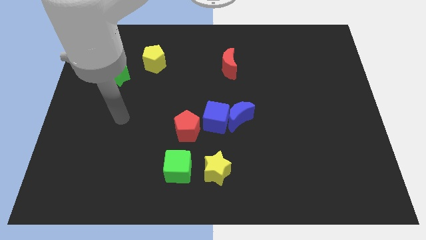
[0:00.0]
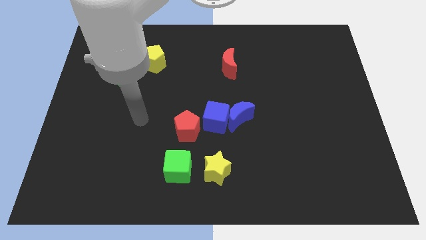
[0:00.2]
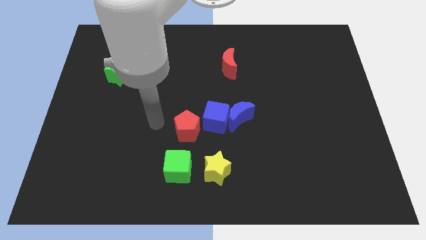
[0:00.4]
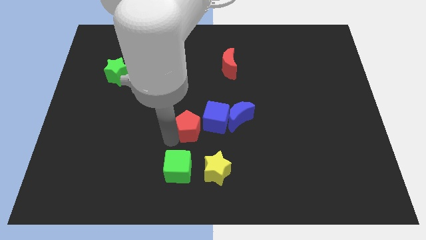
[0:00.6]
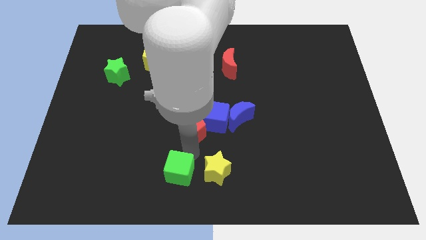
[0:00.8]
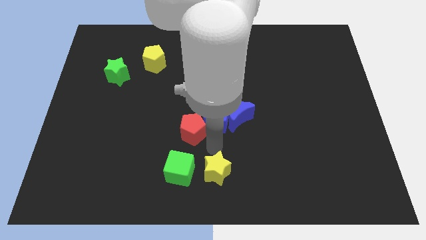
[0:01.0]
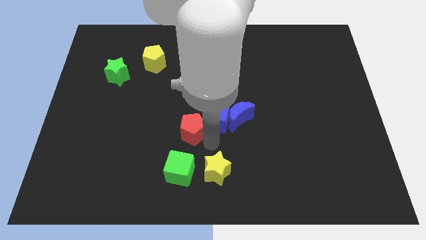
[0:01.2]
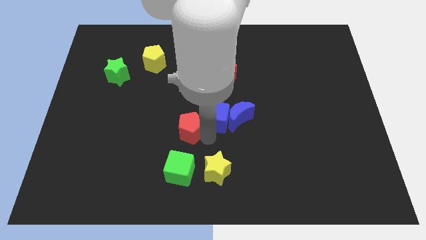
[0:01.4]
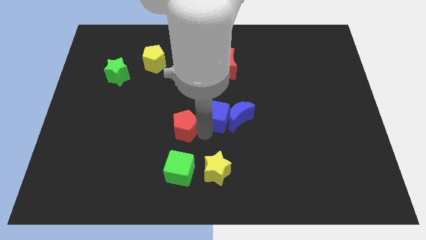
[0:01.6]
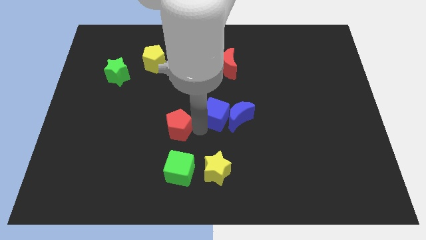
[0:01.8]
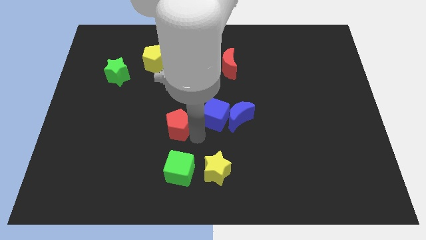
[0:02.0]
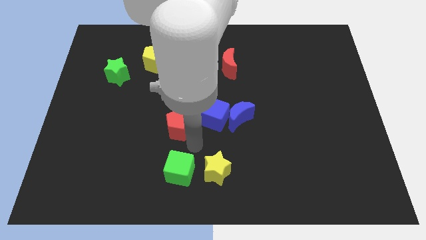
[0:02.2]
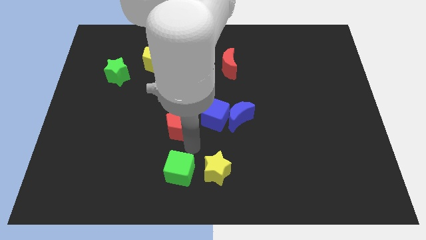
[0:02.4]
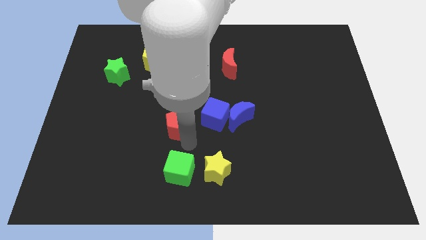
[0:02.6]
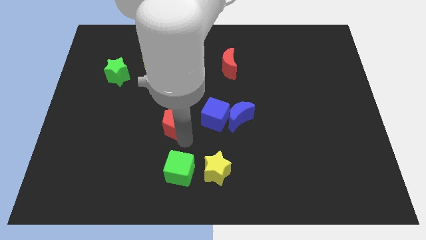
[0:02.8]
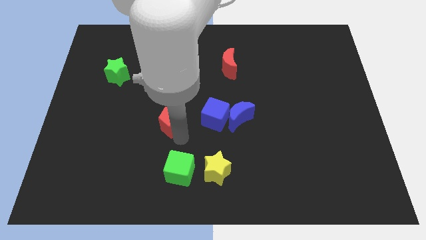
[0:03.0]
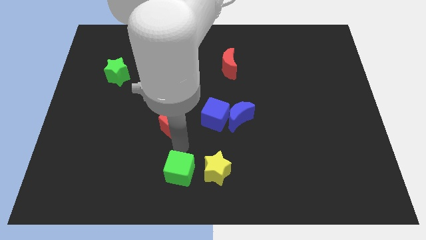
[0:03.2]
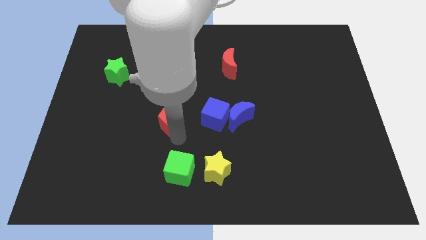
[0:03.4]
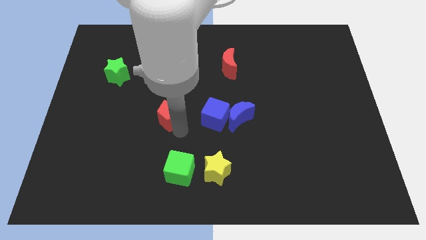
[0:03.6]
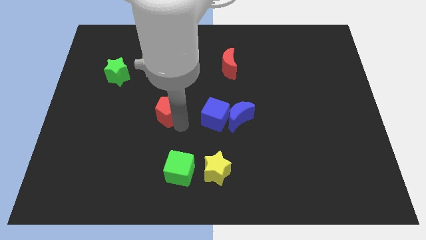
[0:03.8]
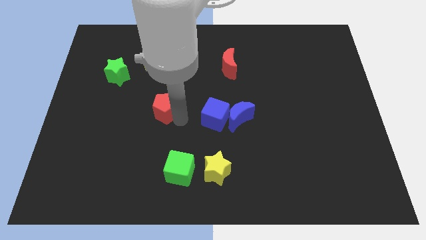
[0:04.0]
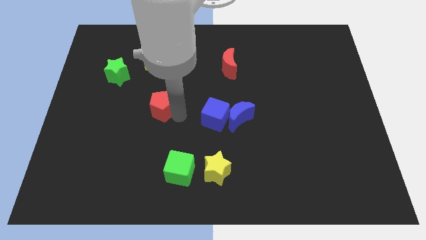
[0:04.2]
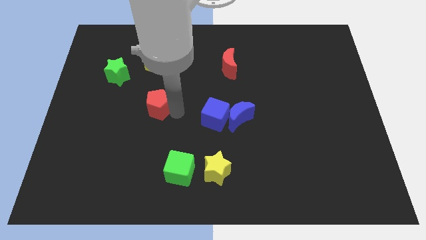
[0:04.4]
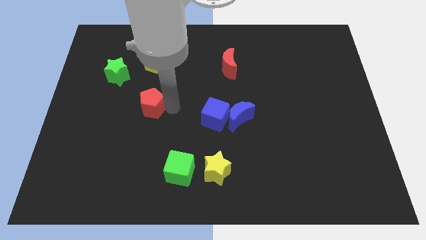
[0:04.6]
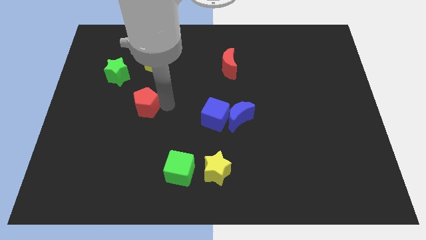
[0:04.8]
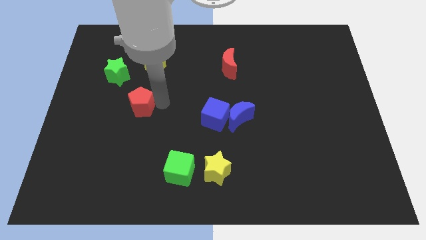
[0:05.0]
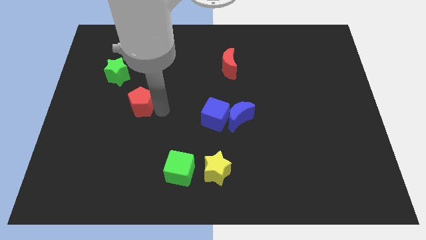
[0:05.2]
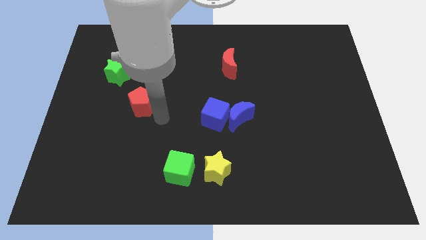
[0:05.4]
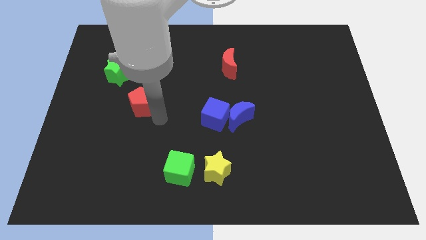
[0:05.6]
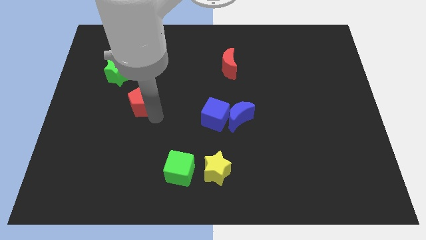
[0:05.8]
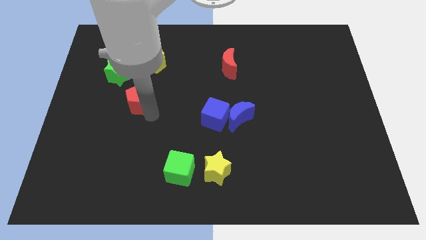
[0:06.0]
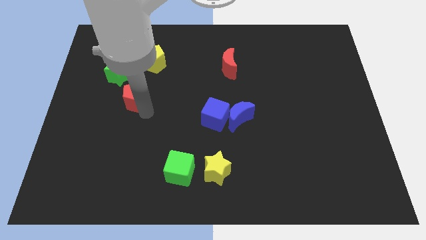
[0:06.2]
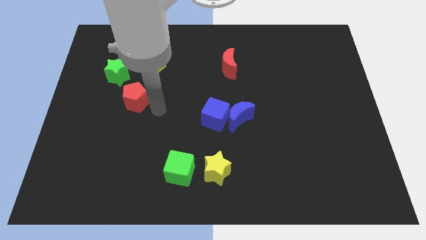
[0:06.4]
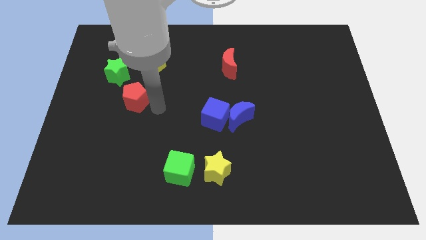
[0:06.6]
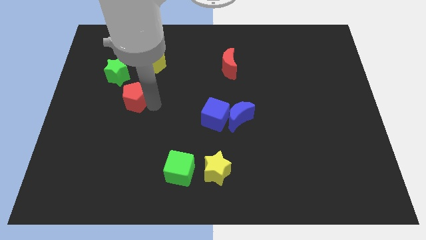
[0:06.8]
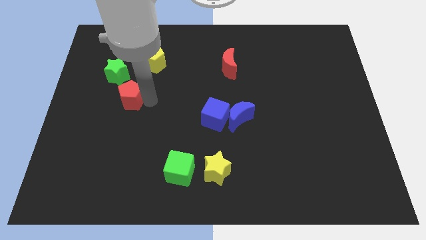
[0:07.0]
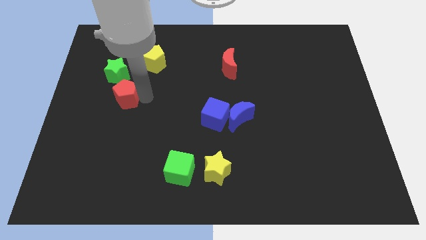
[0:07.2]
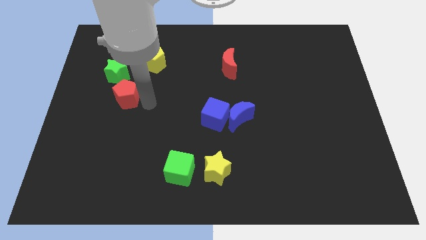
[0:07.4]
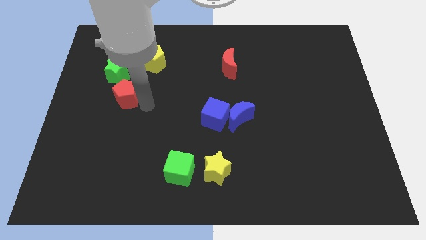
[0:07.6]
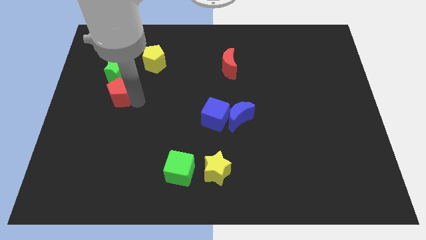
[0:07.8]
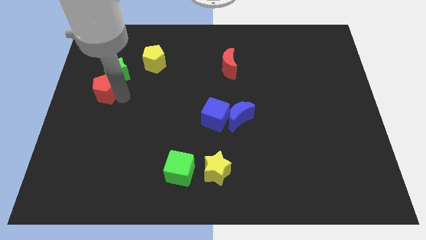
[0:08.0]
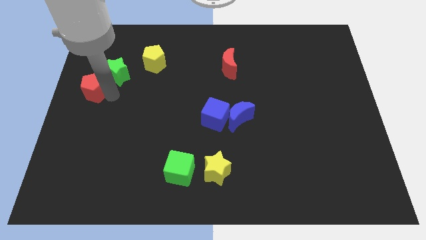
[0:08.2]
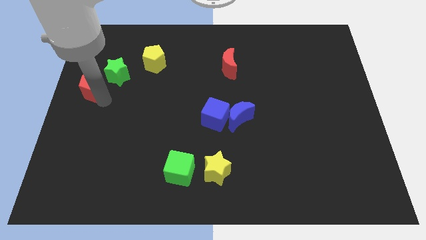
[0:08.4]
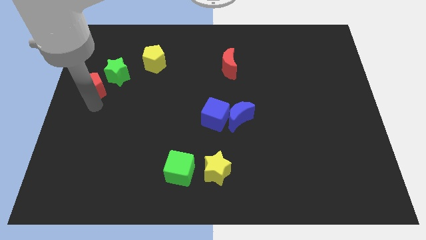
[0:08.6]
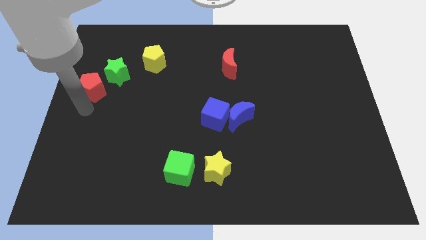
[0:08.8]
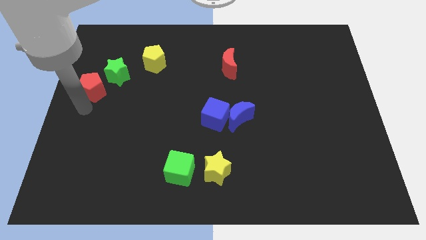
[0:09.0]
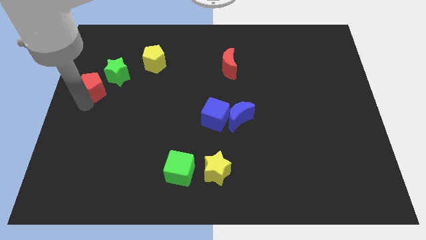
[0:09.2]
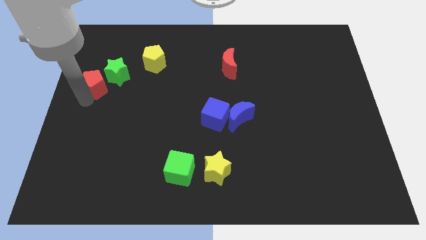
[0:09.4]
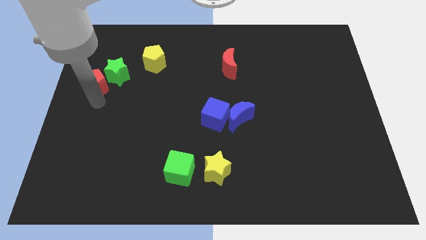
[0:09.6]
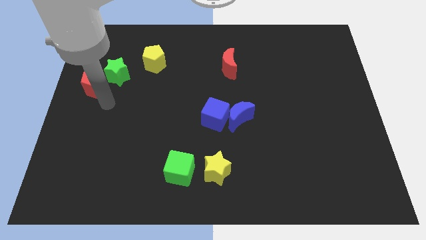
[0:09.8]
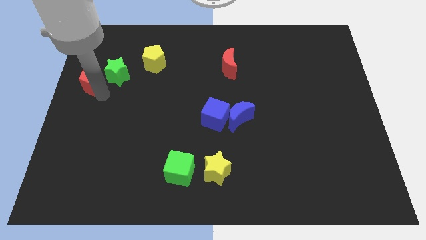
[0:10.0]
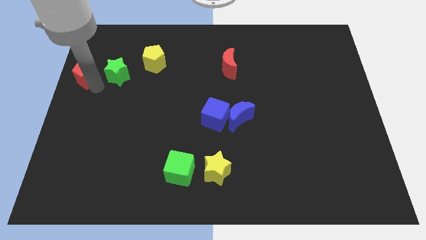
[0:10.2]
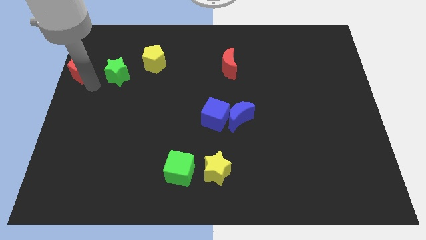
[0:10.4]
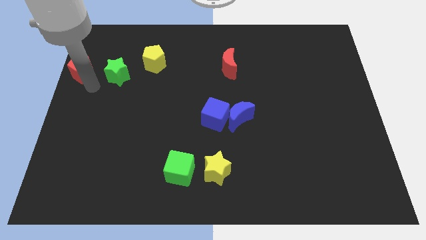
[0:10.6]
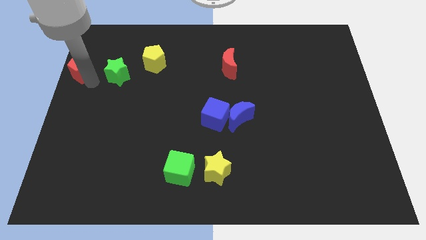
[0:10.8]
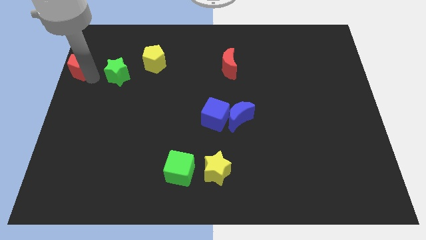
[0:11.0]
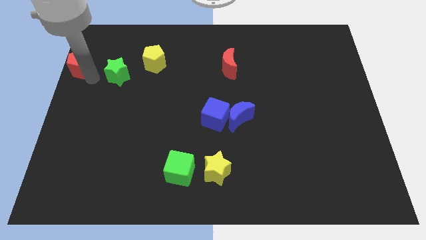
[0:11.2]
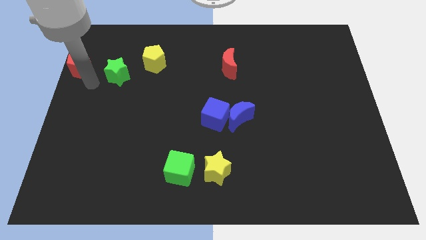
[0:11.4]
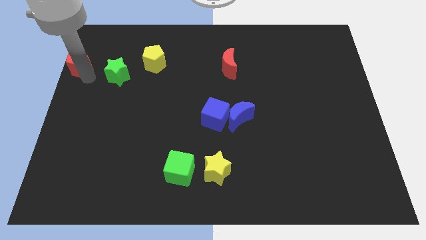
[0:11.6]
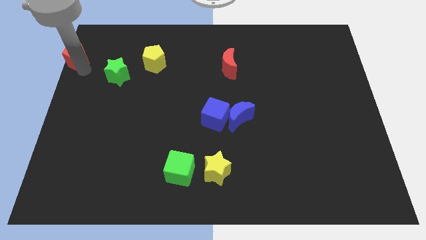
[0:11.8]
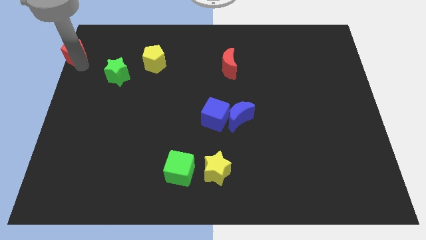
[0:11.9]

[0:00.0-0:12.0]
push the red pentagon to the upper left corner

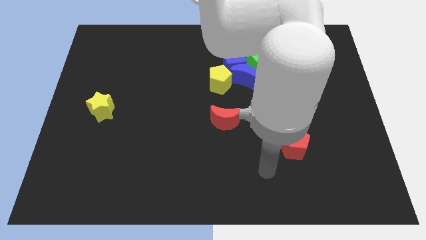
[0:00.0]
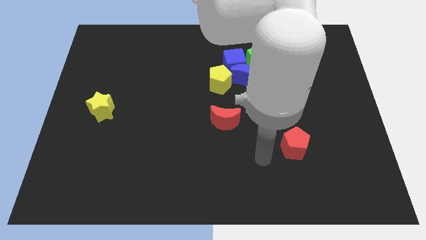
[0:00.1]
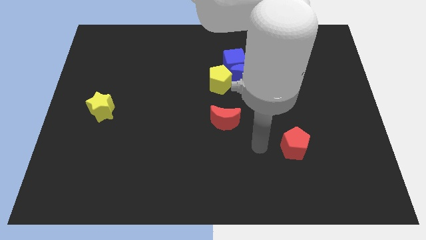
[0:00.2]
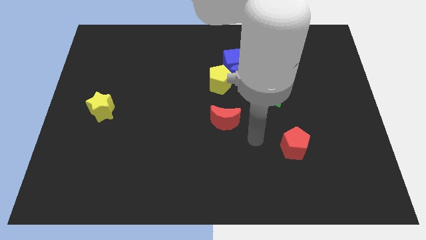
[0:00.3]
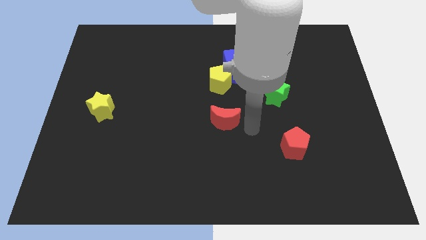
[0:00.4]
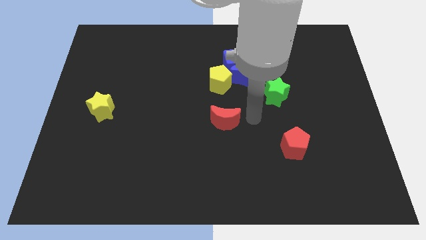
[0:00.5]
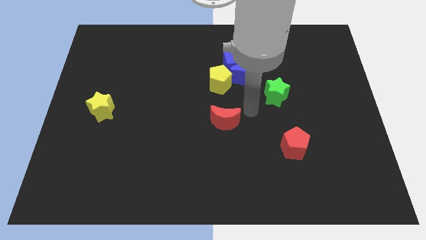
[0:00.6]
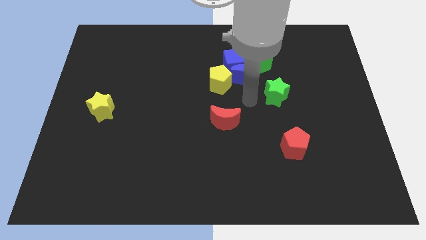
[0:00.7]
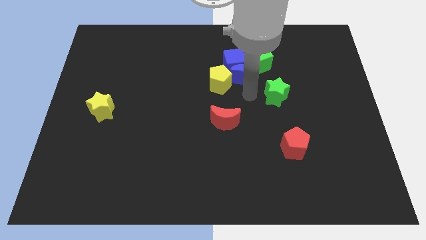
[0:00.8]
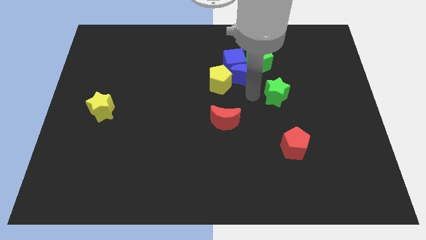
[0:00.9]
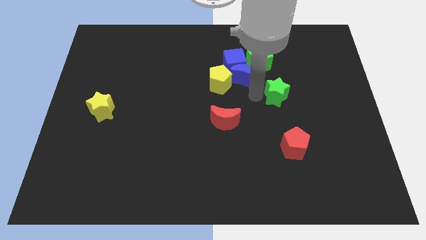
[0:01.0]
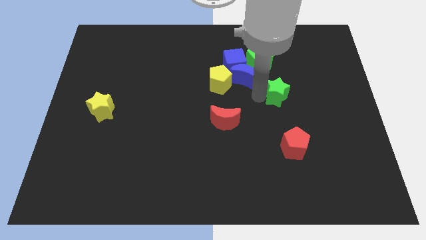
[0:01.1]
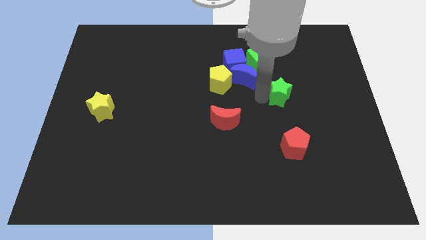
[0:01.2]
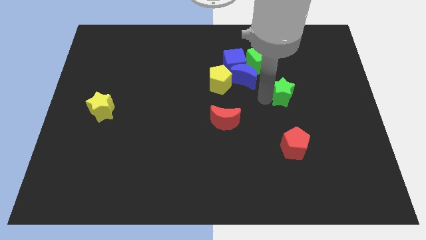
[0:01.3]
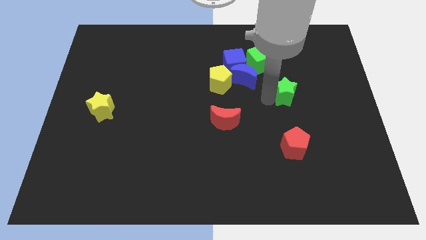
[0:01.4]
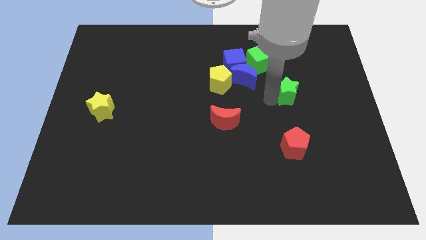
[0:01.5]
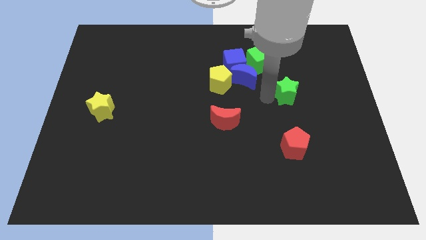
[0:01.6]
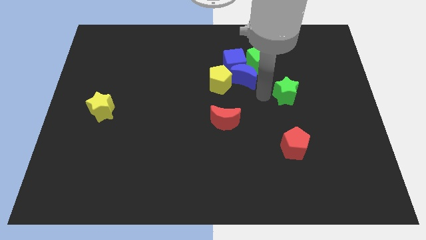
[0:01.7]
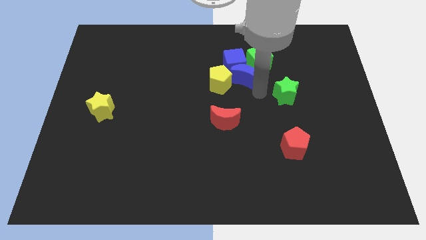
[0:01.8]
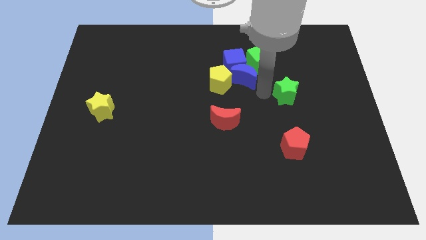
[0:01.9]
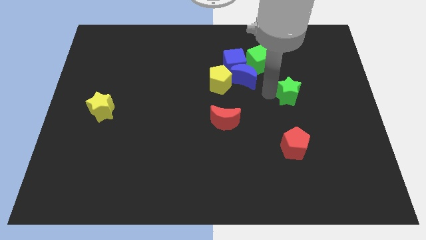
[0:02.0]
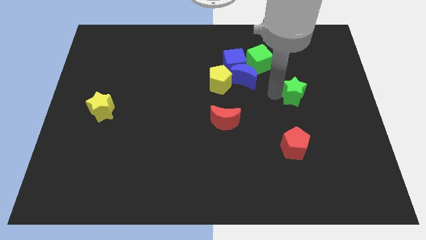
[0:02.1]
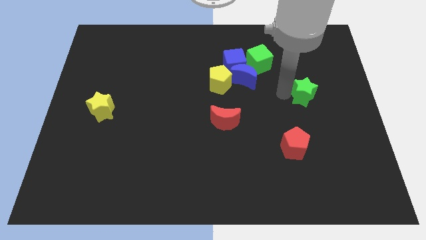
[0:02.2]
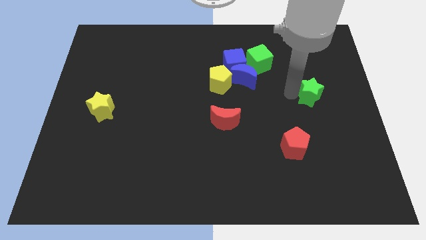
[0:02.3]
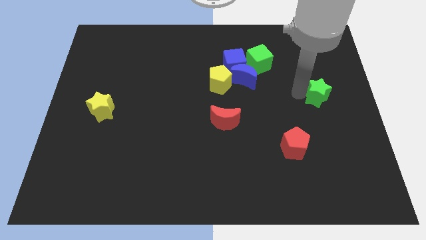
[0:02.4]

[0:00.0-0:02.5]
slide the green star to the center right
